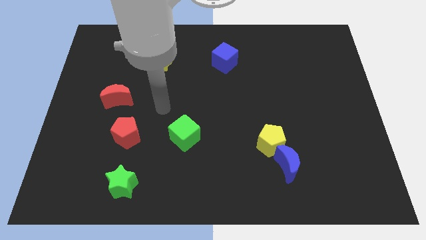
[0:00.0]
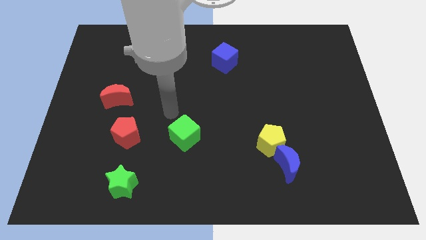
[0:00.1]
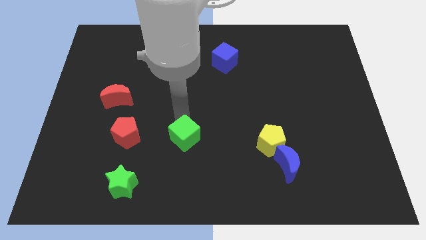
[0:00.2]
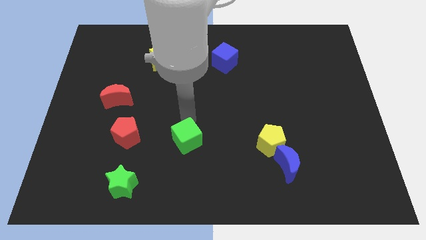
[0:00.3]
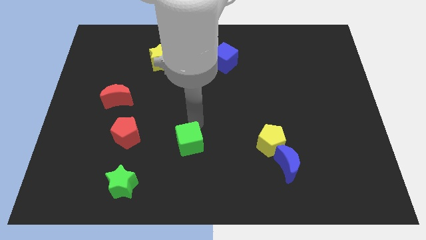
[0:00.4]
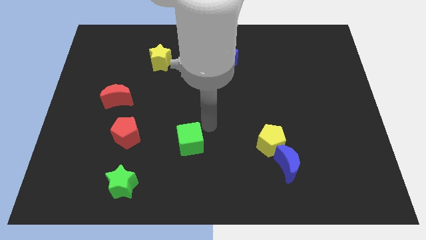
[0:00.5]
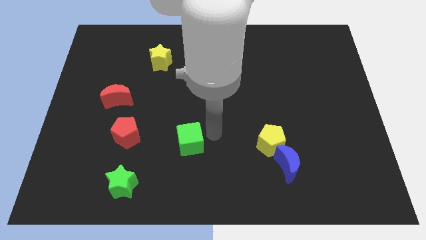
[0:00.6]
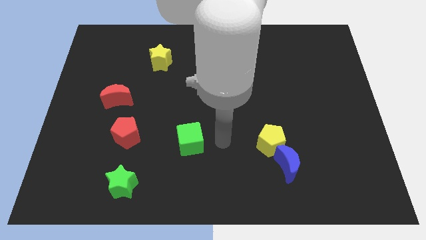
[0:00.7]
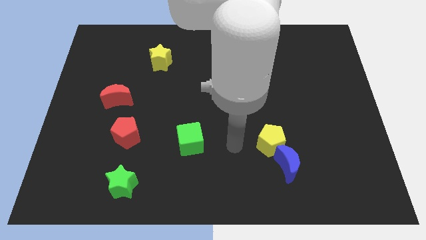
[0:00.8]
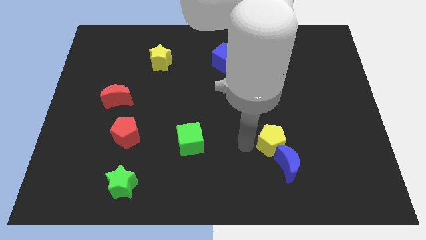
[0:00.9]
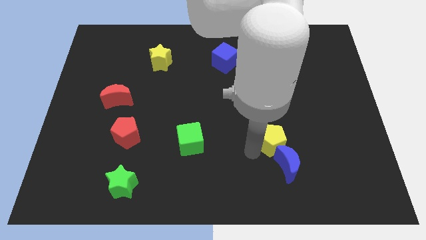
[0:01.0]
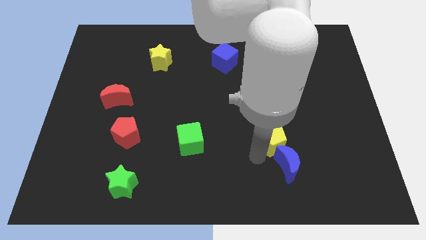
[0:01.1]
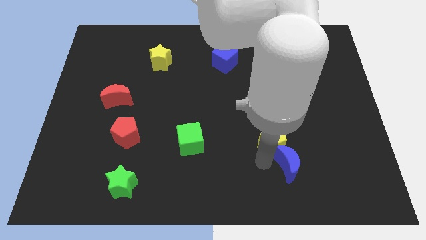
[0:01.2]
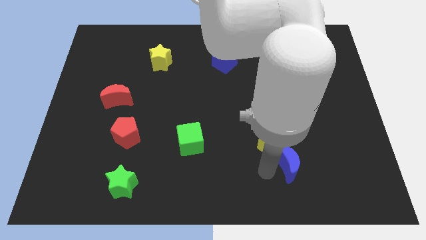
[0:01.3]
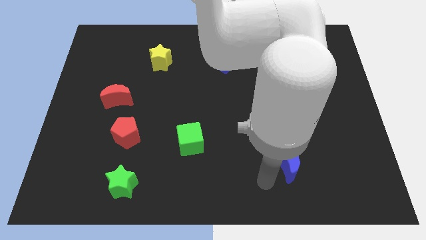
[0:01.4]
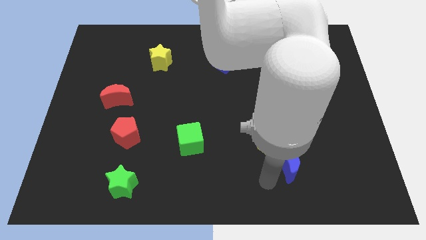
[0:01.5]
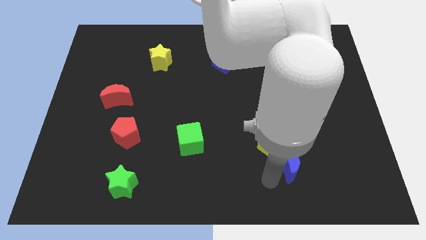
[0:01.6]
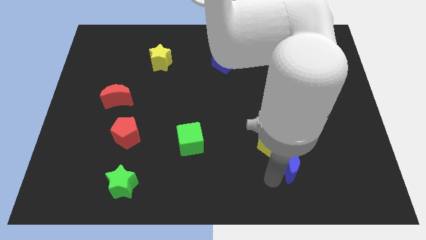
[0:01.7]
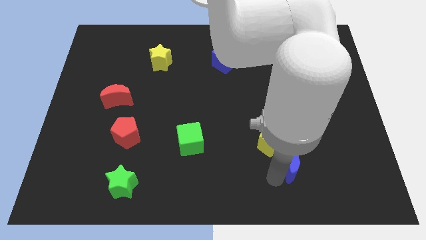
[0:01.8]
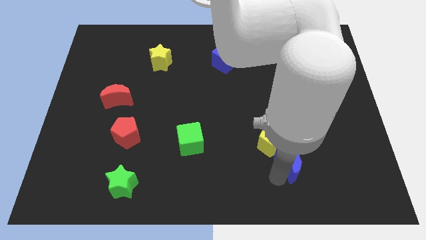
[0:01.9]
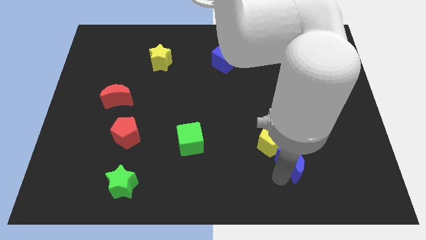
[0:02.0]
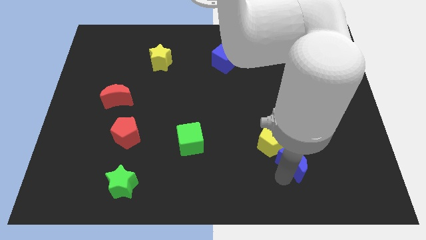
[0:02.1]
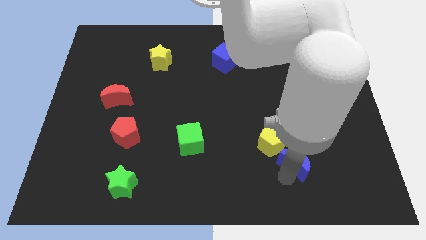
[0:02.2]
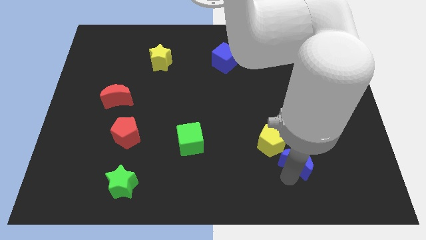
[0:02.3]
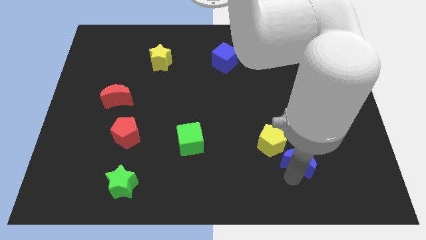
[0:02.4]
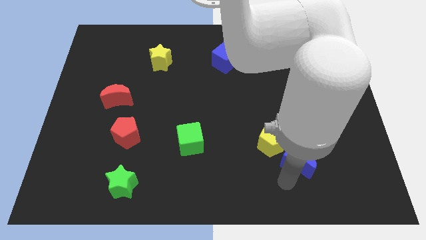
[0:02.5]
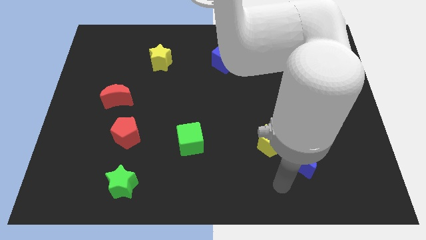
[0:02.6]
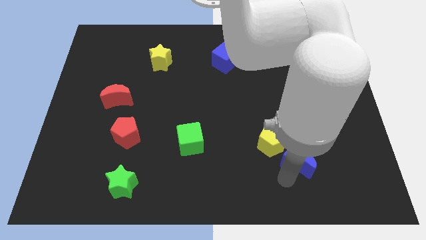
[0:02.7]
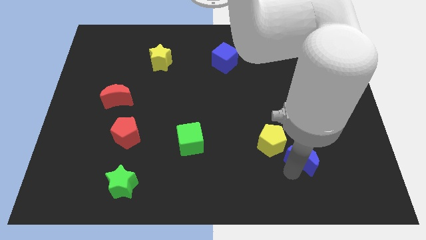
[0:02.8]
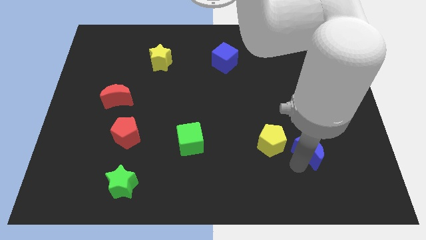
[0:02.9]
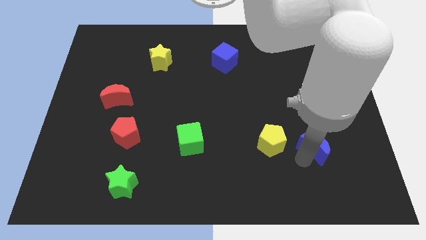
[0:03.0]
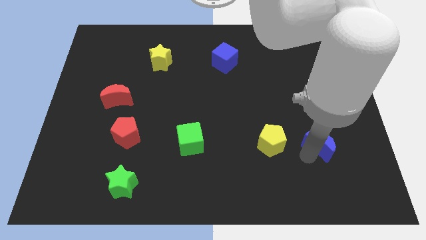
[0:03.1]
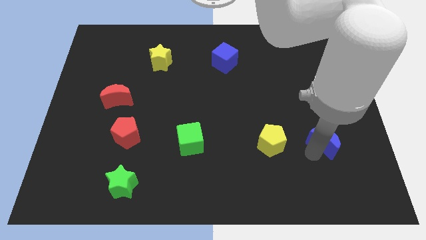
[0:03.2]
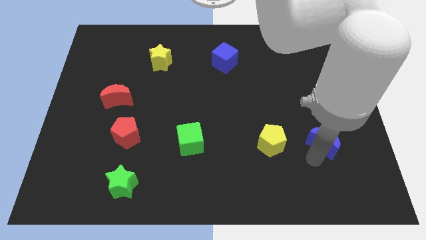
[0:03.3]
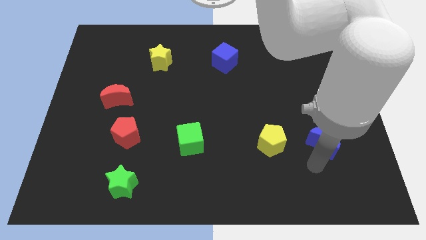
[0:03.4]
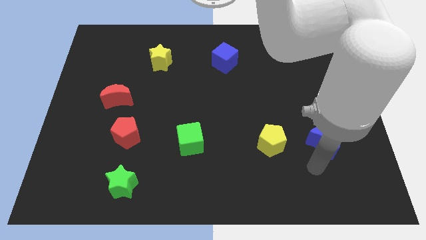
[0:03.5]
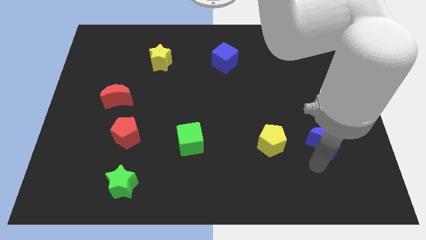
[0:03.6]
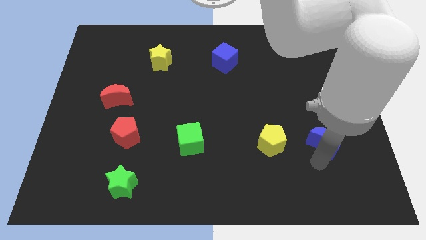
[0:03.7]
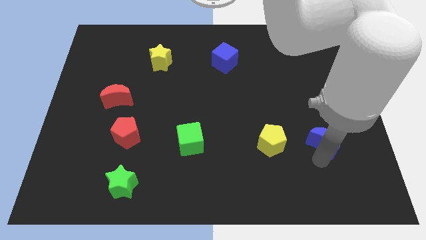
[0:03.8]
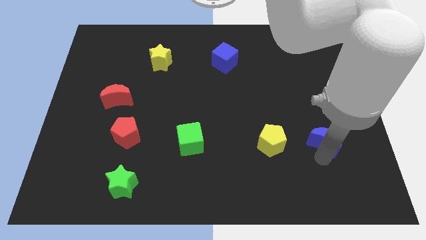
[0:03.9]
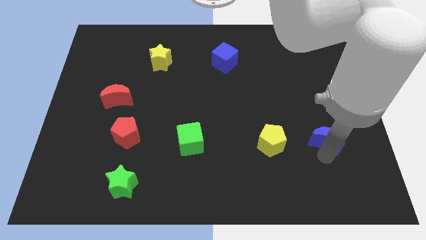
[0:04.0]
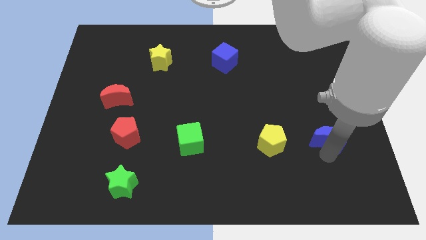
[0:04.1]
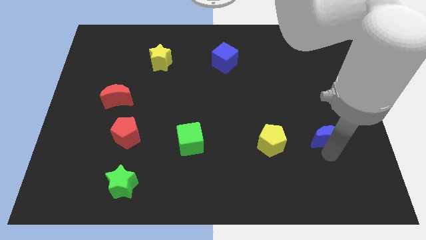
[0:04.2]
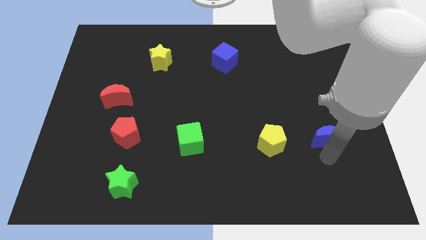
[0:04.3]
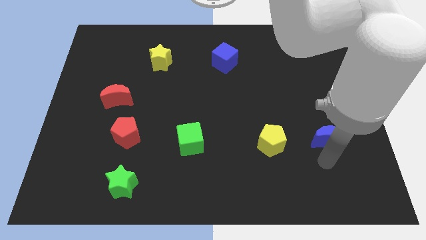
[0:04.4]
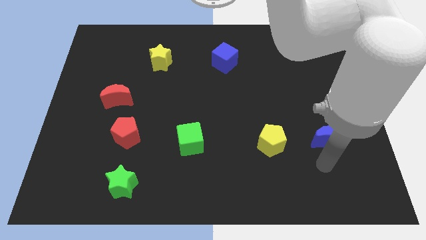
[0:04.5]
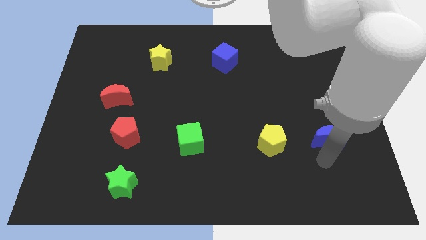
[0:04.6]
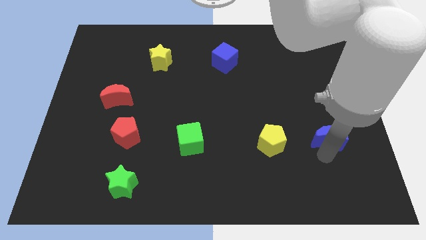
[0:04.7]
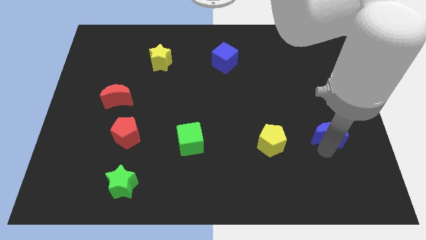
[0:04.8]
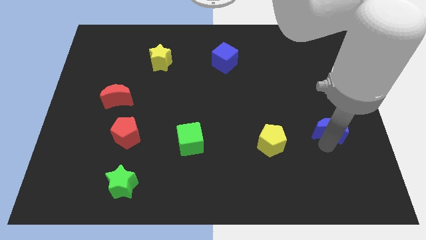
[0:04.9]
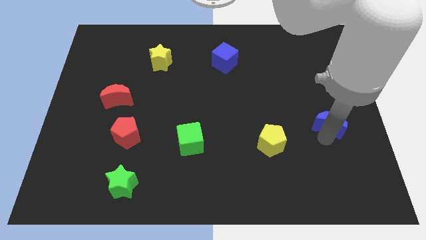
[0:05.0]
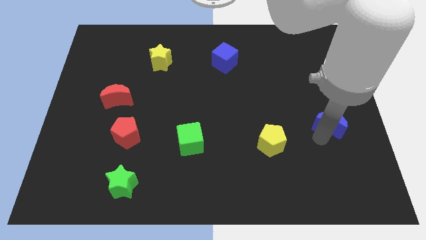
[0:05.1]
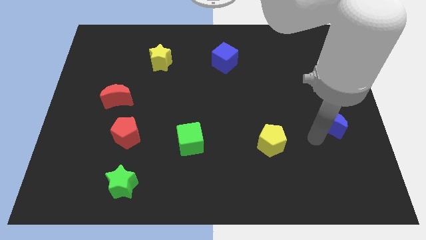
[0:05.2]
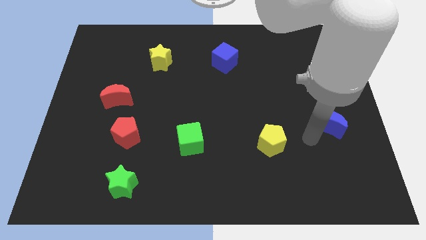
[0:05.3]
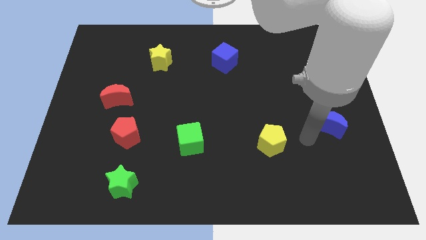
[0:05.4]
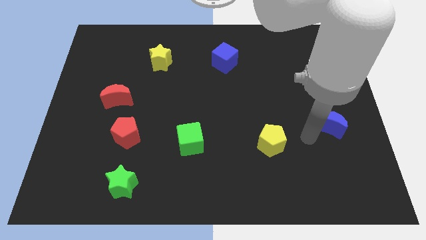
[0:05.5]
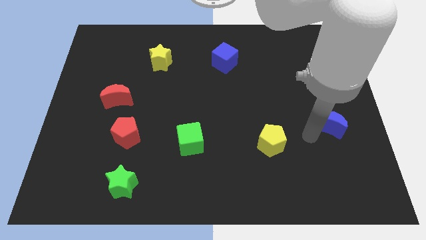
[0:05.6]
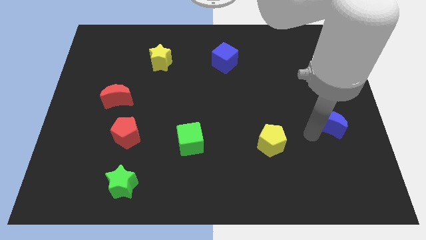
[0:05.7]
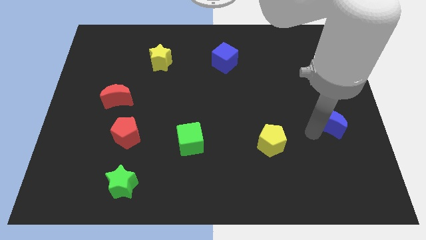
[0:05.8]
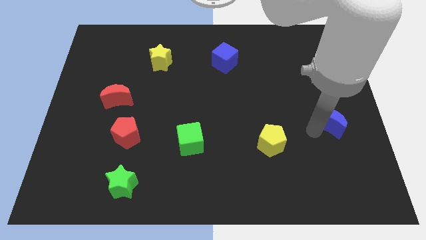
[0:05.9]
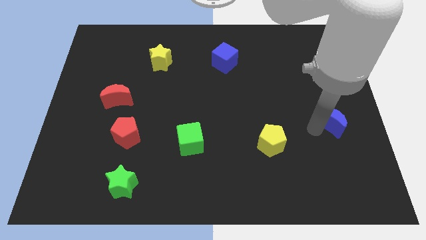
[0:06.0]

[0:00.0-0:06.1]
move the blue moon to the center right
